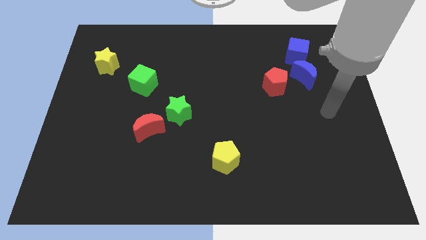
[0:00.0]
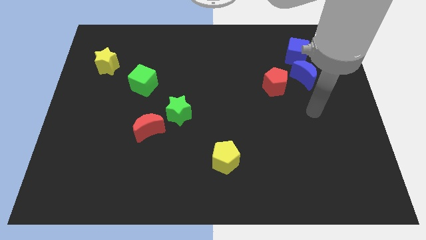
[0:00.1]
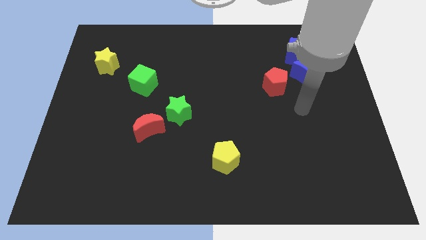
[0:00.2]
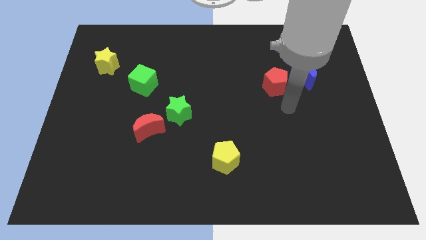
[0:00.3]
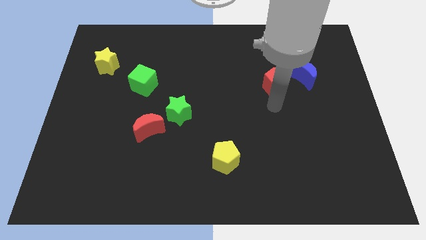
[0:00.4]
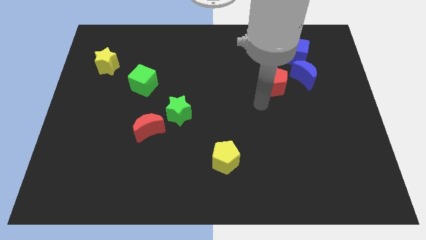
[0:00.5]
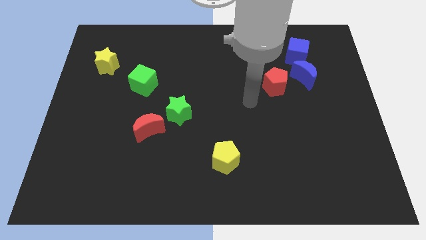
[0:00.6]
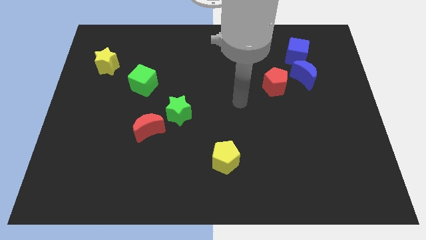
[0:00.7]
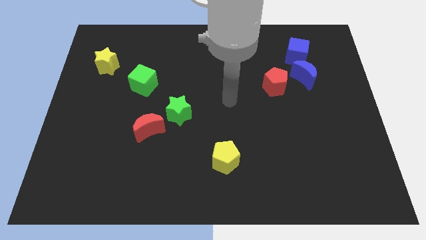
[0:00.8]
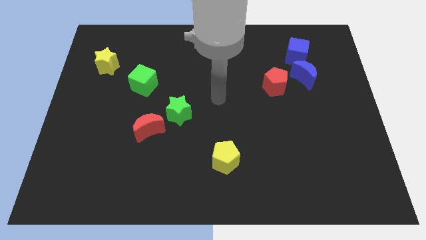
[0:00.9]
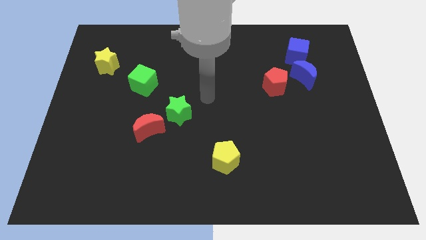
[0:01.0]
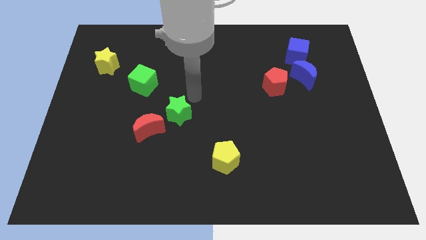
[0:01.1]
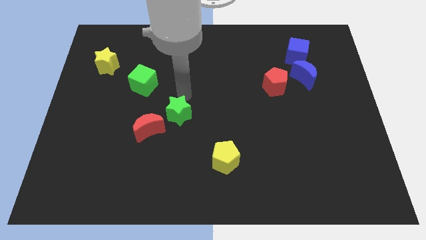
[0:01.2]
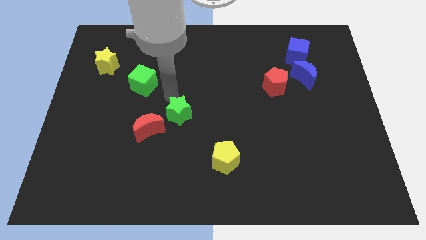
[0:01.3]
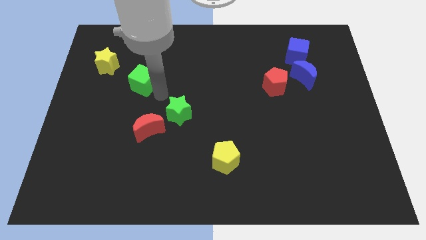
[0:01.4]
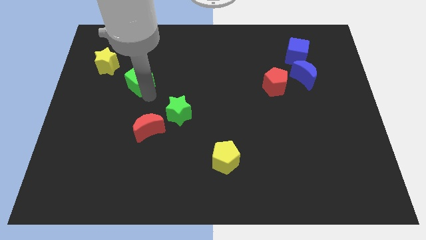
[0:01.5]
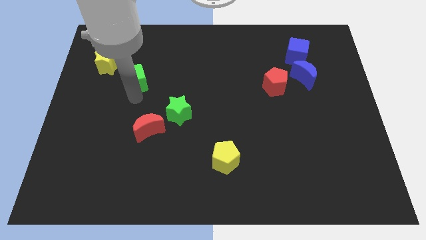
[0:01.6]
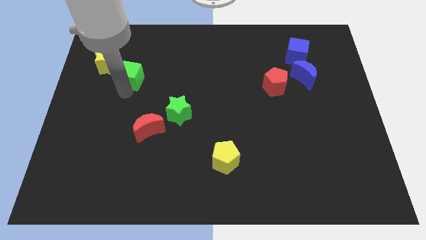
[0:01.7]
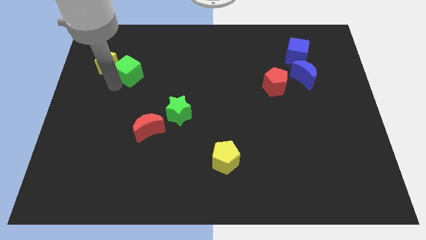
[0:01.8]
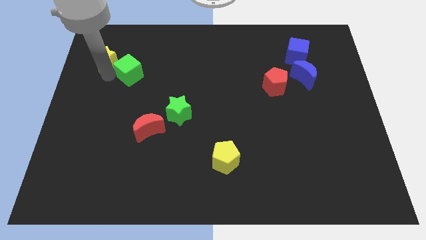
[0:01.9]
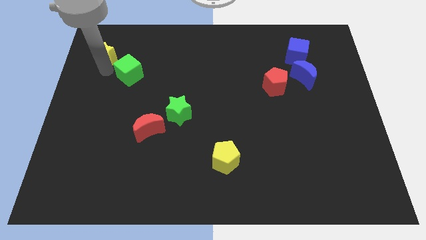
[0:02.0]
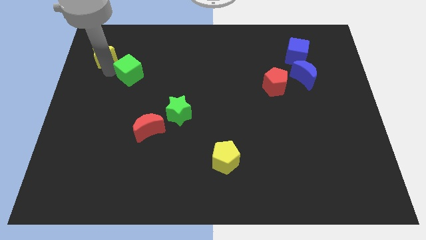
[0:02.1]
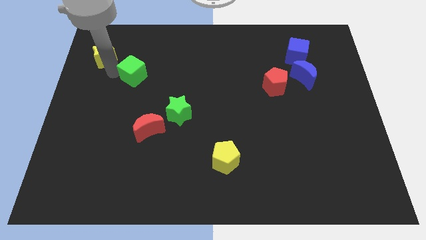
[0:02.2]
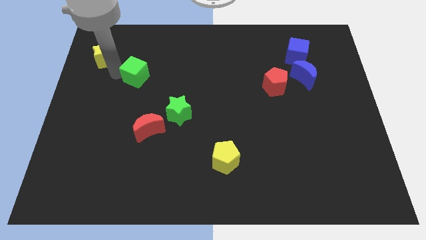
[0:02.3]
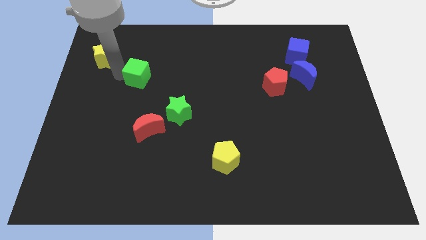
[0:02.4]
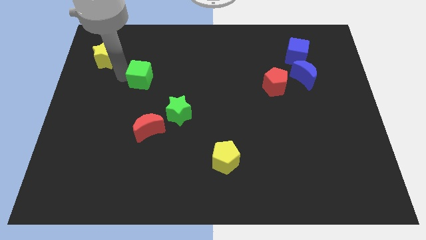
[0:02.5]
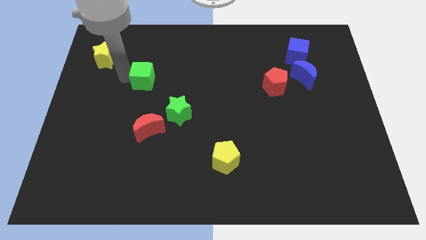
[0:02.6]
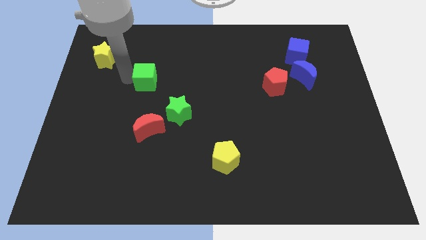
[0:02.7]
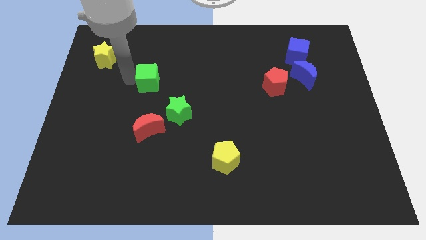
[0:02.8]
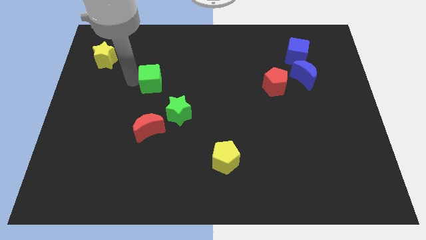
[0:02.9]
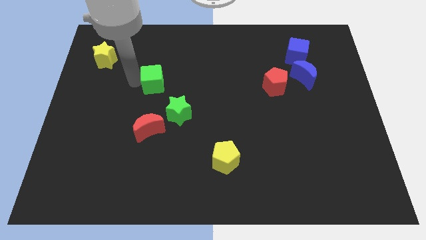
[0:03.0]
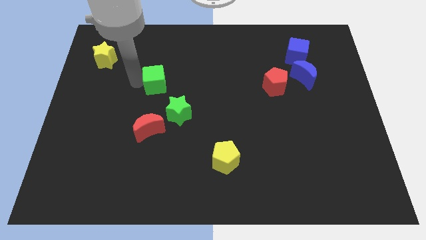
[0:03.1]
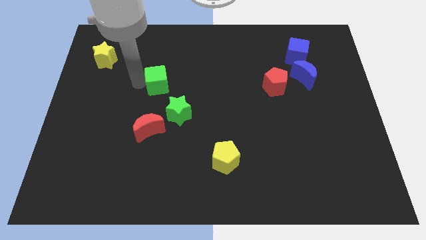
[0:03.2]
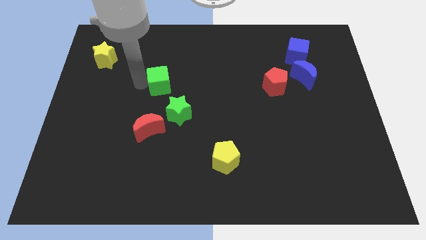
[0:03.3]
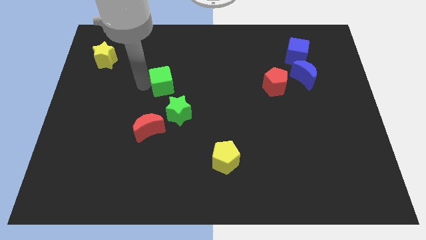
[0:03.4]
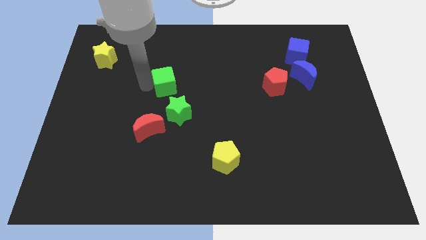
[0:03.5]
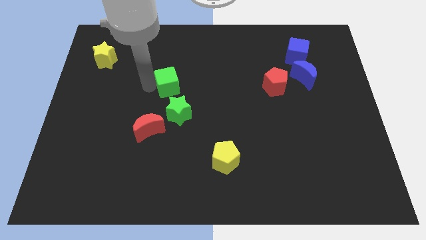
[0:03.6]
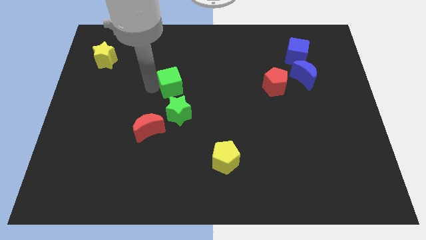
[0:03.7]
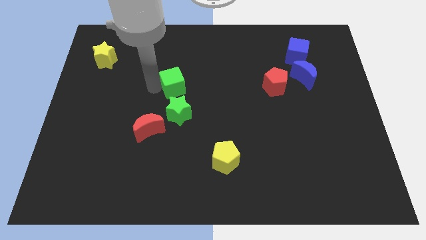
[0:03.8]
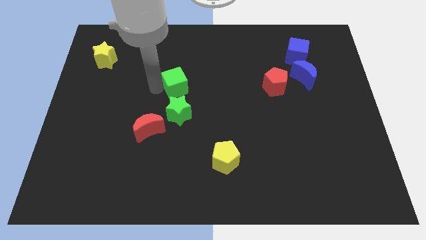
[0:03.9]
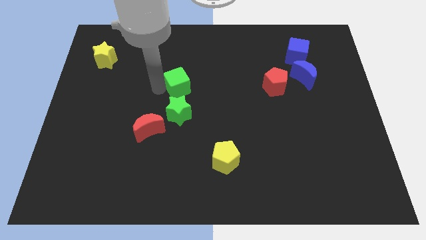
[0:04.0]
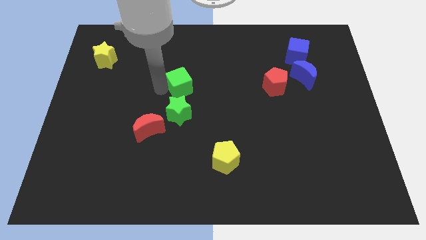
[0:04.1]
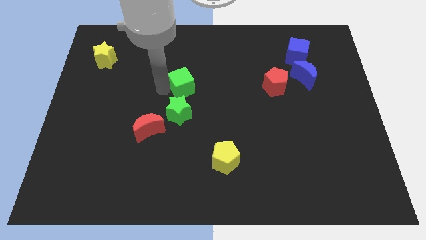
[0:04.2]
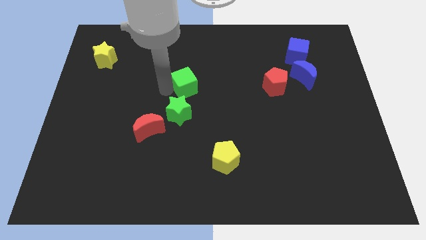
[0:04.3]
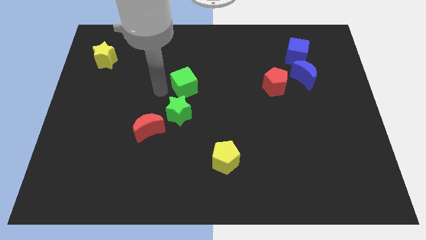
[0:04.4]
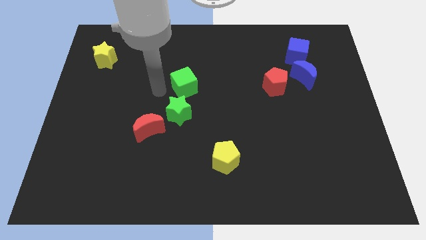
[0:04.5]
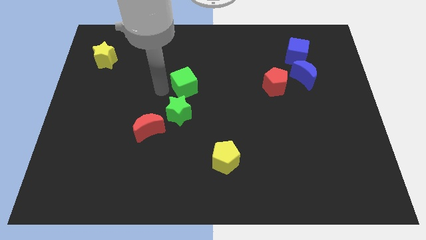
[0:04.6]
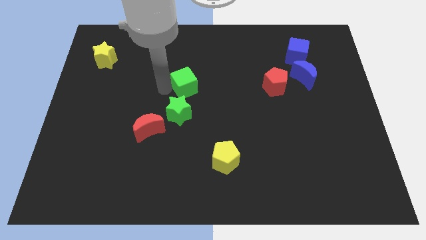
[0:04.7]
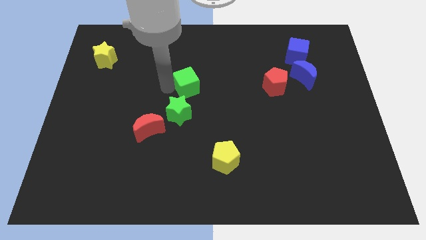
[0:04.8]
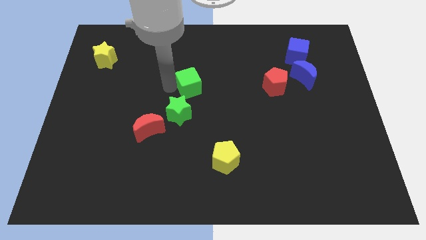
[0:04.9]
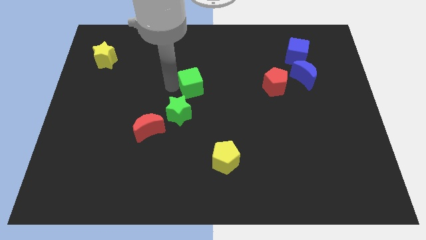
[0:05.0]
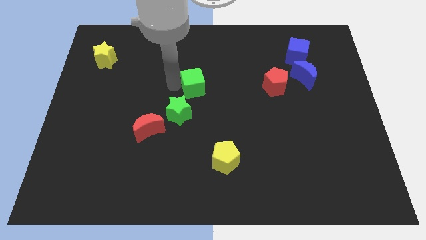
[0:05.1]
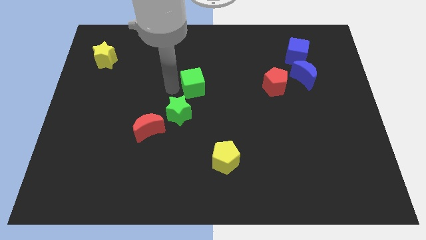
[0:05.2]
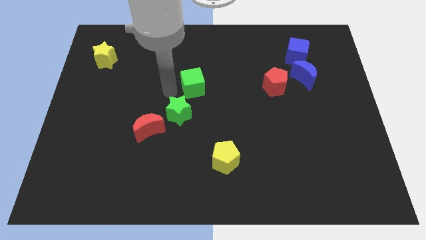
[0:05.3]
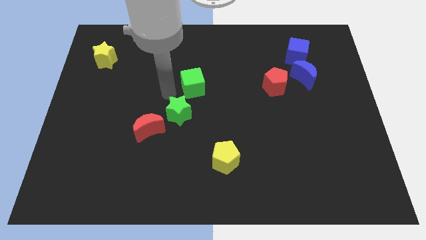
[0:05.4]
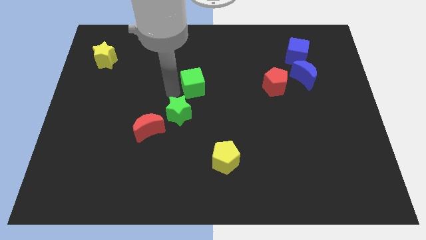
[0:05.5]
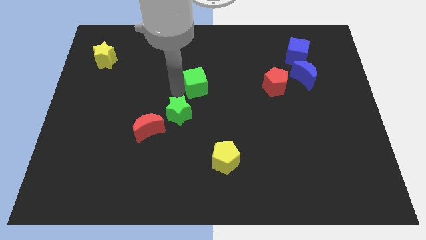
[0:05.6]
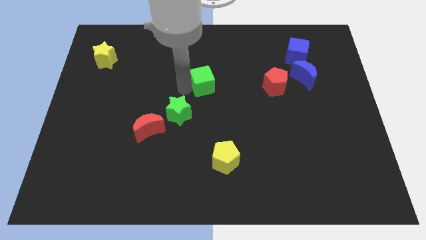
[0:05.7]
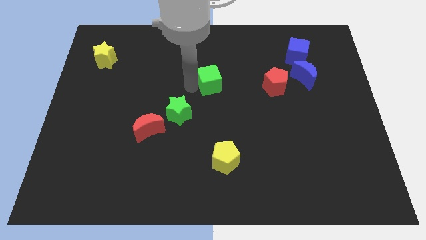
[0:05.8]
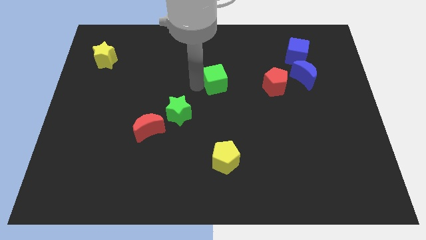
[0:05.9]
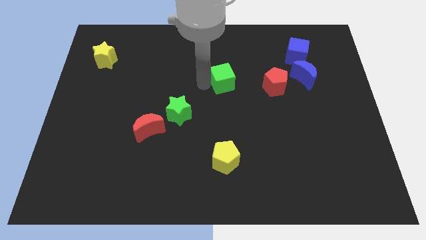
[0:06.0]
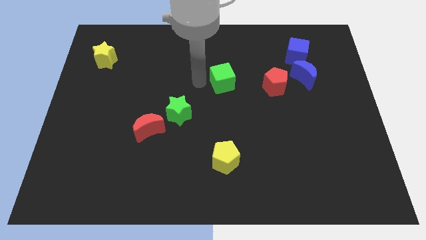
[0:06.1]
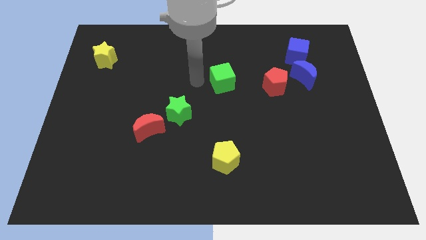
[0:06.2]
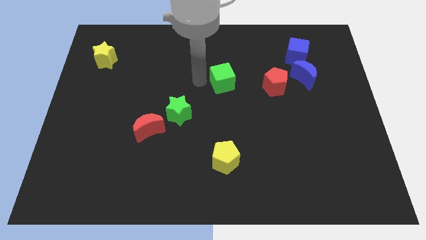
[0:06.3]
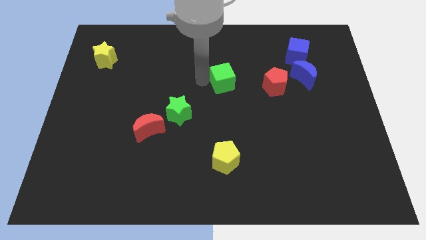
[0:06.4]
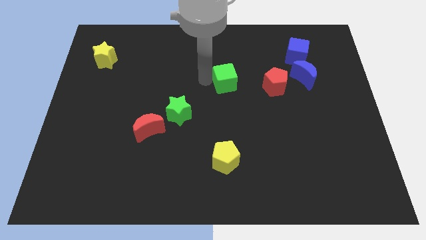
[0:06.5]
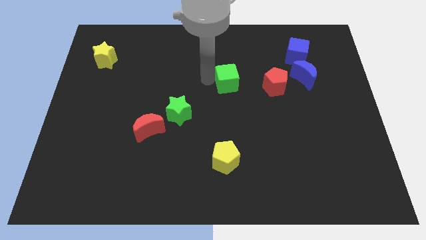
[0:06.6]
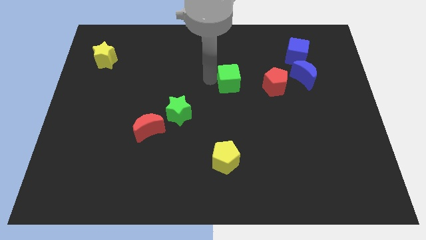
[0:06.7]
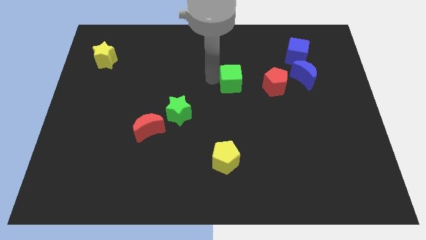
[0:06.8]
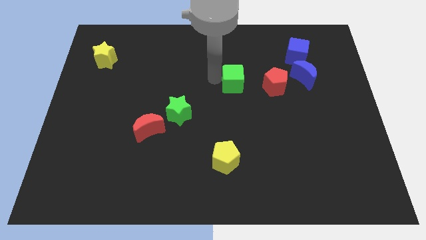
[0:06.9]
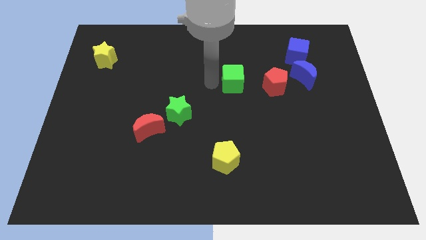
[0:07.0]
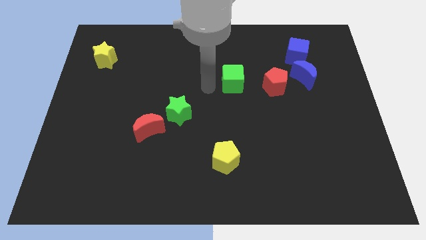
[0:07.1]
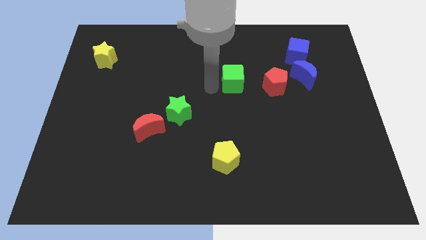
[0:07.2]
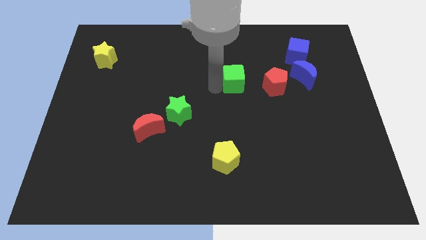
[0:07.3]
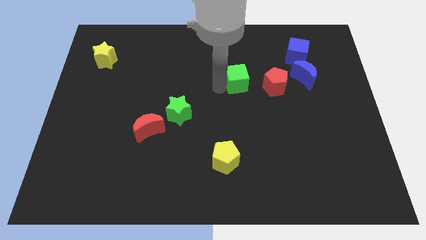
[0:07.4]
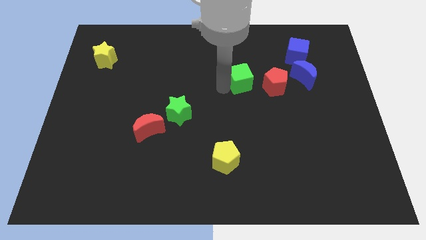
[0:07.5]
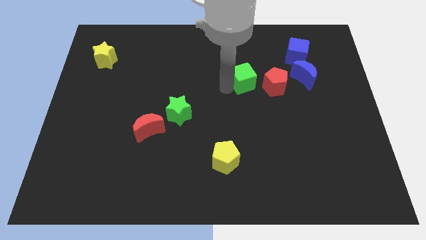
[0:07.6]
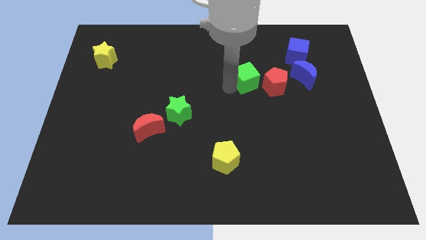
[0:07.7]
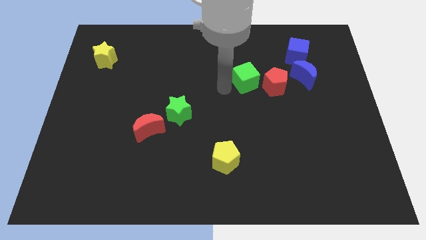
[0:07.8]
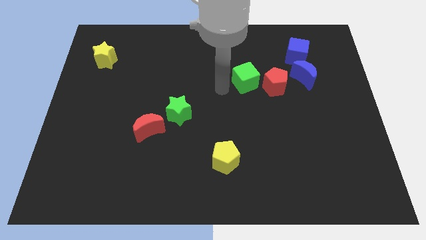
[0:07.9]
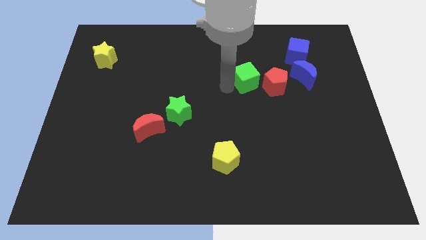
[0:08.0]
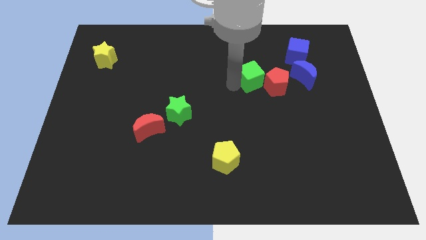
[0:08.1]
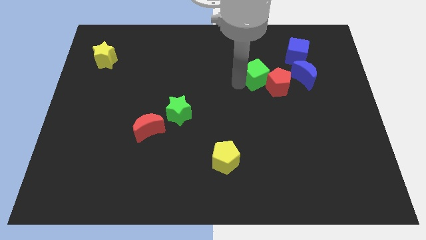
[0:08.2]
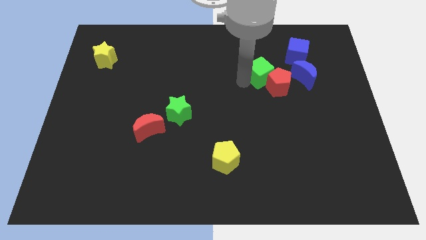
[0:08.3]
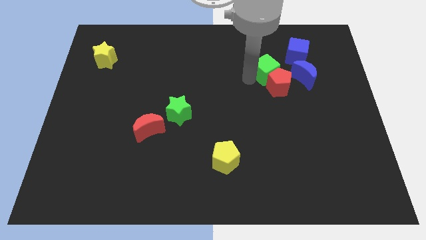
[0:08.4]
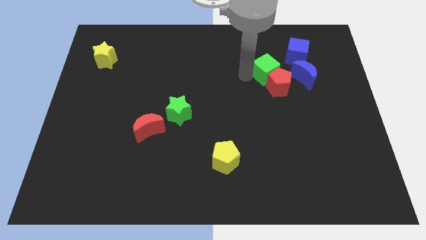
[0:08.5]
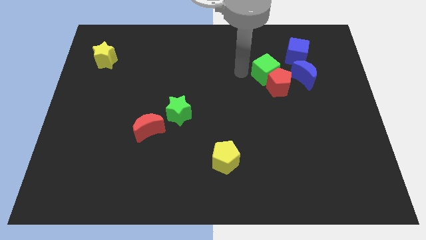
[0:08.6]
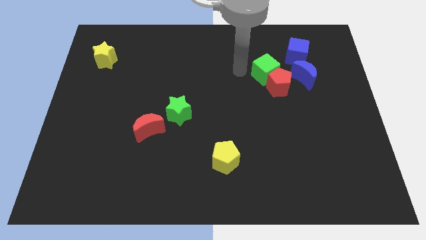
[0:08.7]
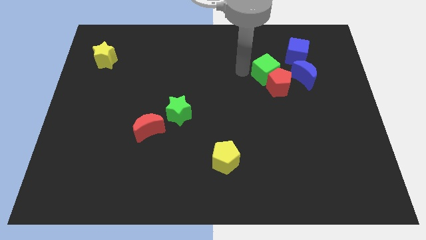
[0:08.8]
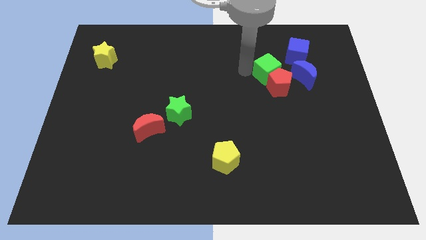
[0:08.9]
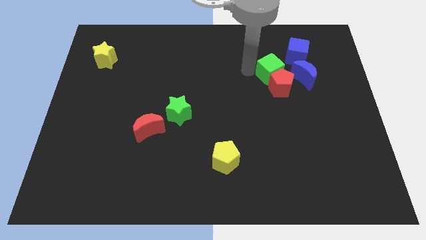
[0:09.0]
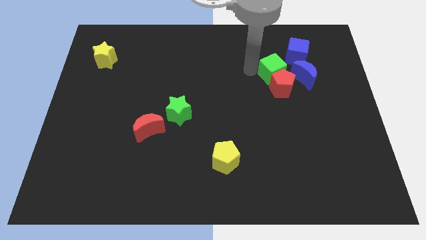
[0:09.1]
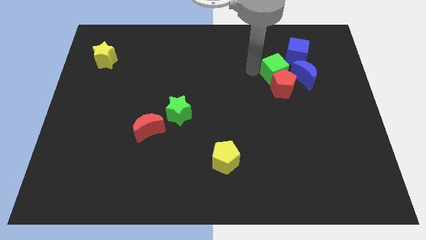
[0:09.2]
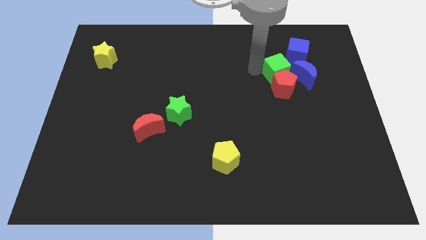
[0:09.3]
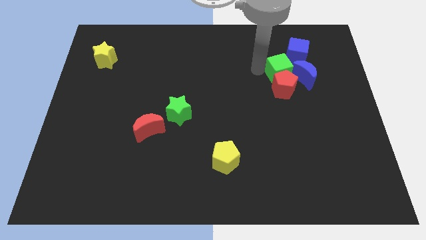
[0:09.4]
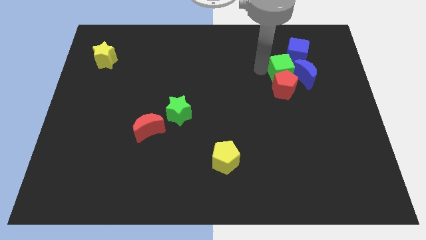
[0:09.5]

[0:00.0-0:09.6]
push the green cube to the blue moon
